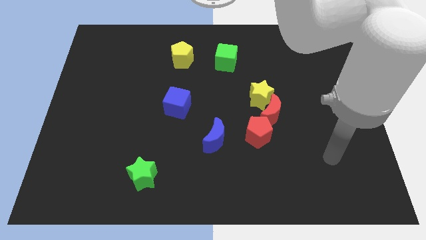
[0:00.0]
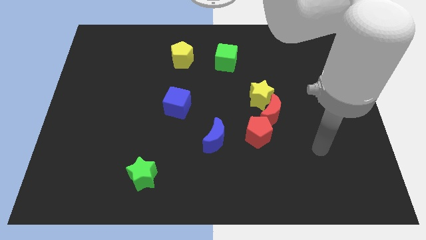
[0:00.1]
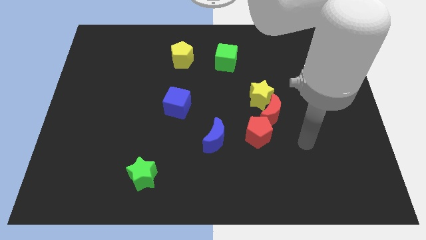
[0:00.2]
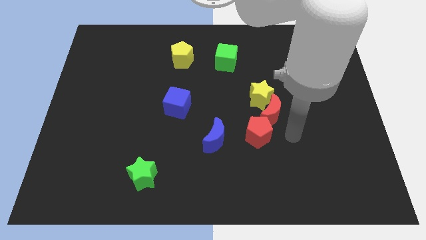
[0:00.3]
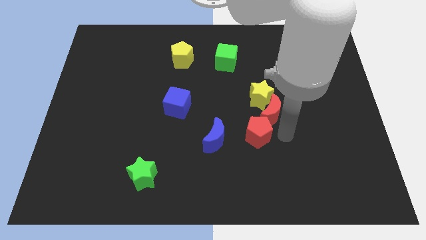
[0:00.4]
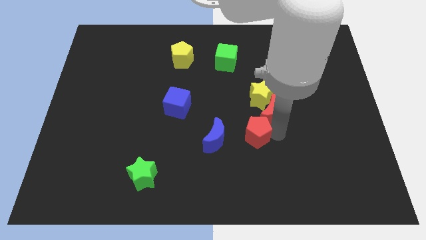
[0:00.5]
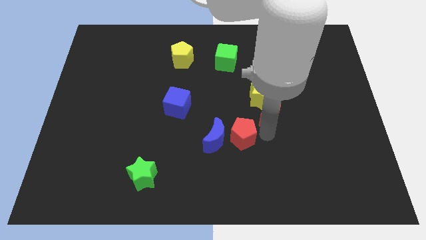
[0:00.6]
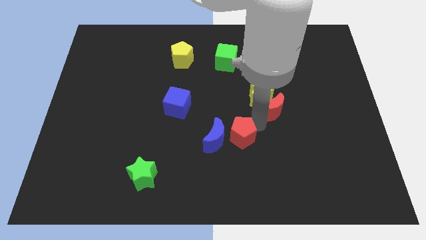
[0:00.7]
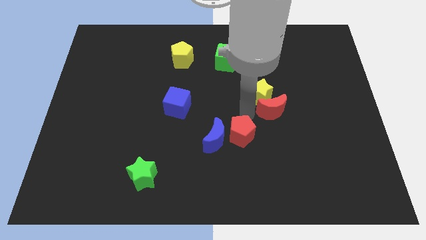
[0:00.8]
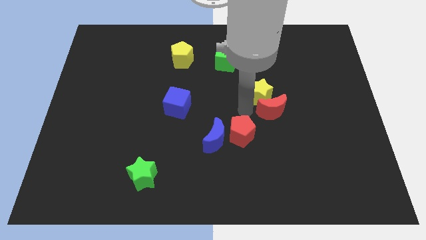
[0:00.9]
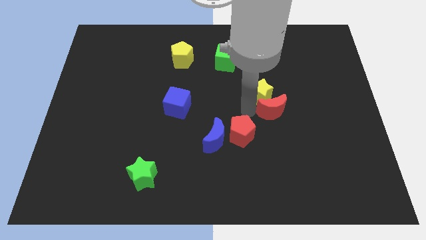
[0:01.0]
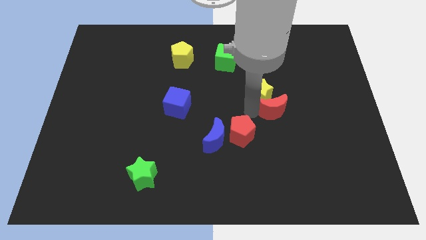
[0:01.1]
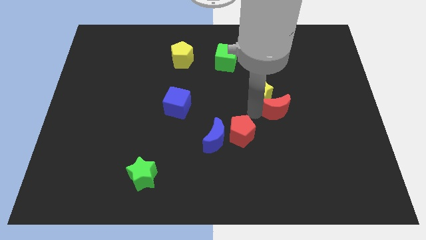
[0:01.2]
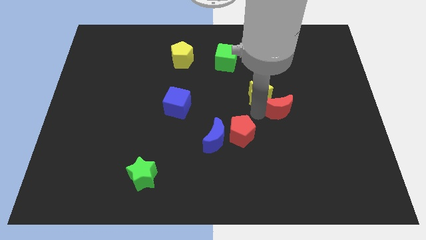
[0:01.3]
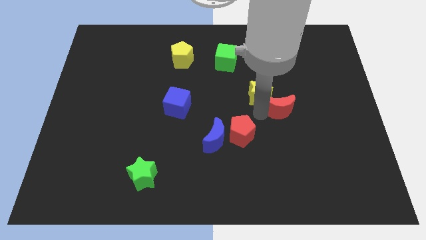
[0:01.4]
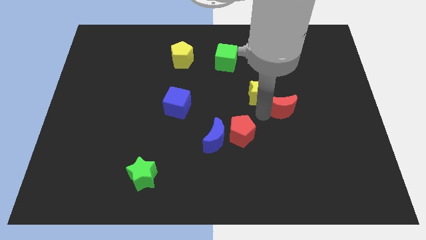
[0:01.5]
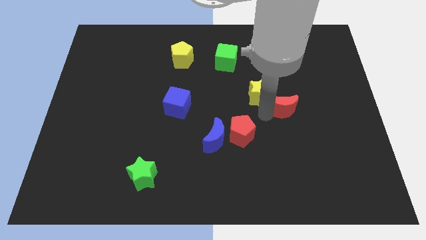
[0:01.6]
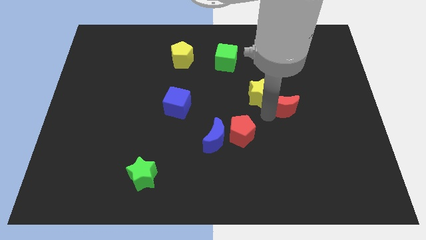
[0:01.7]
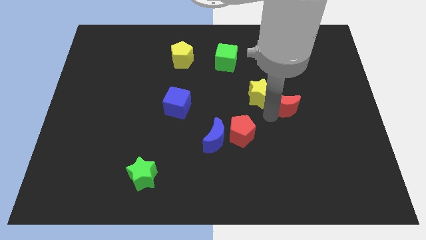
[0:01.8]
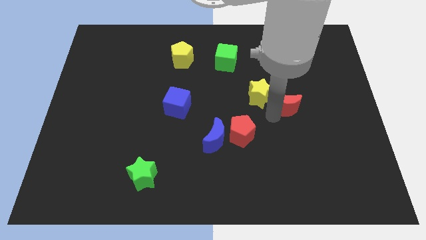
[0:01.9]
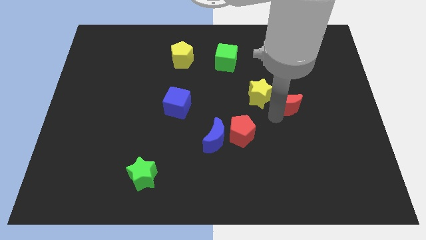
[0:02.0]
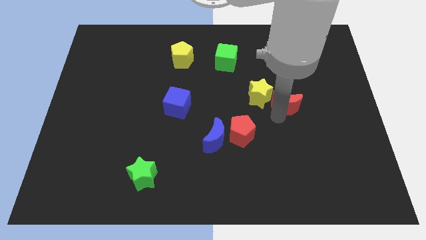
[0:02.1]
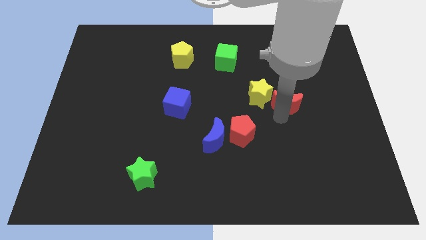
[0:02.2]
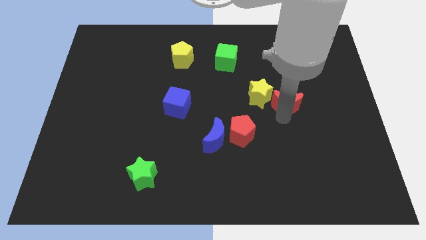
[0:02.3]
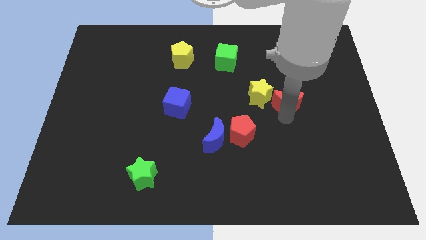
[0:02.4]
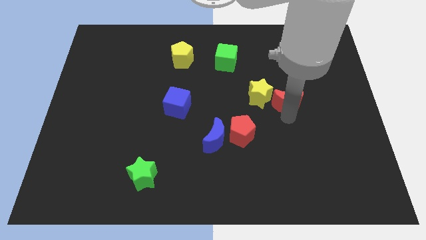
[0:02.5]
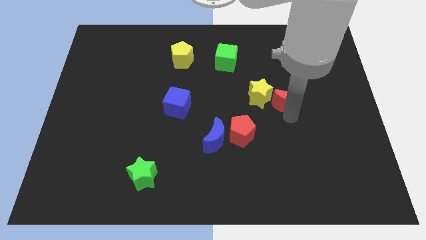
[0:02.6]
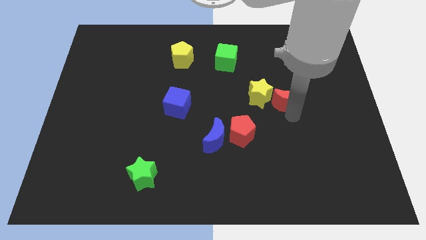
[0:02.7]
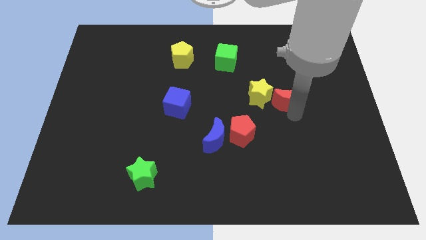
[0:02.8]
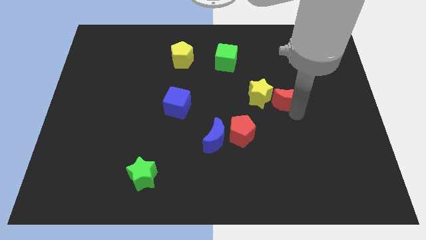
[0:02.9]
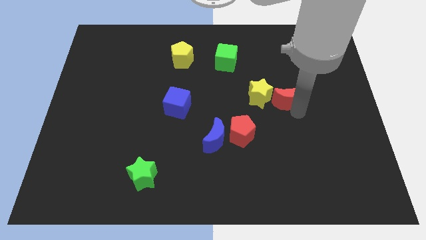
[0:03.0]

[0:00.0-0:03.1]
separate the red moon from the yellow star and red pentagon

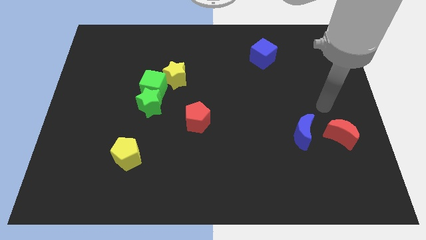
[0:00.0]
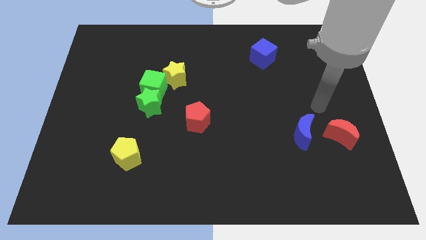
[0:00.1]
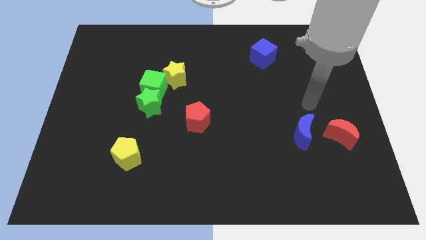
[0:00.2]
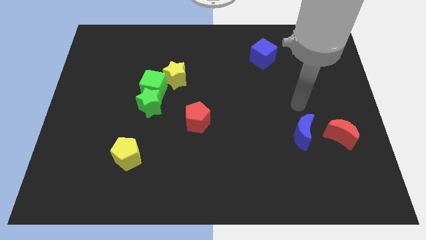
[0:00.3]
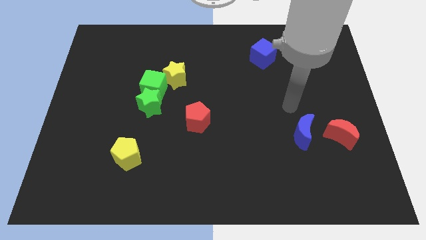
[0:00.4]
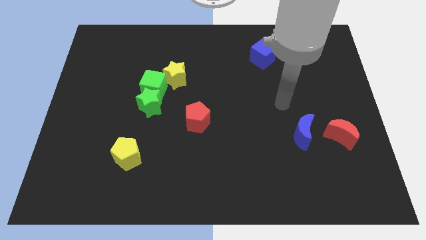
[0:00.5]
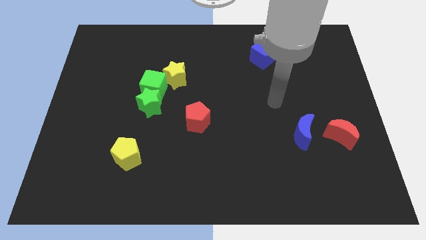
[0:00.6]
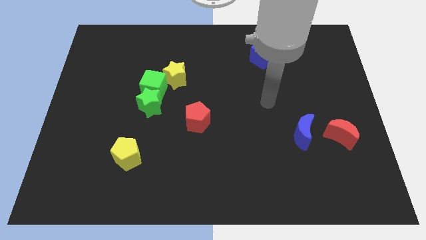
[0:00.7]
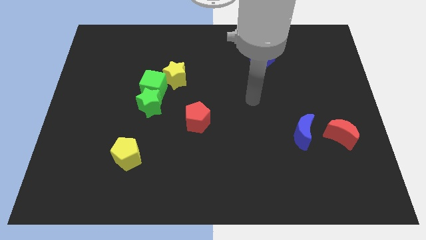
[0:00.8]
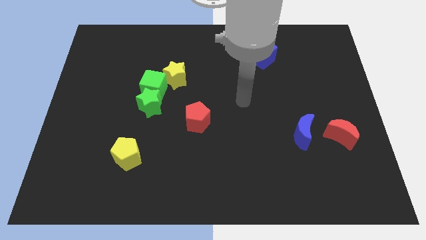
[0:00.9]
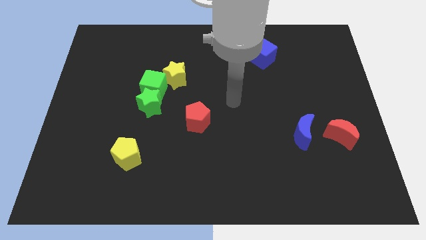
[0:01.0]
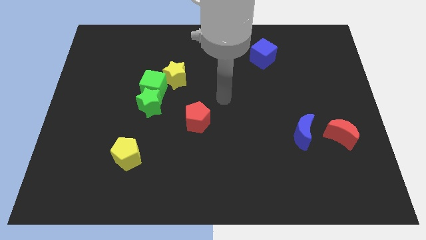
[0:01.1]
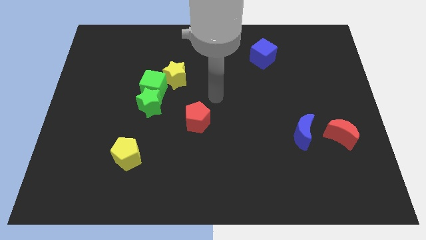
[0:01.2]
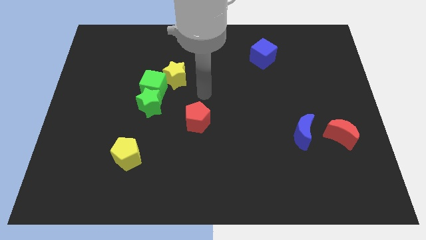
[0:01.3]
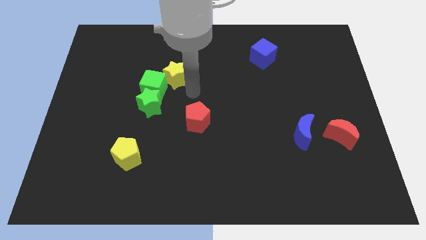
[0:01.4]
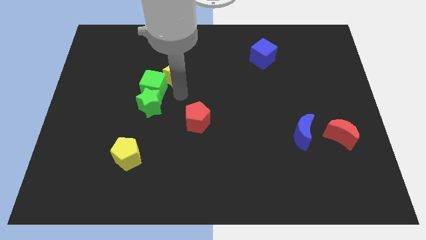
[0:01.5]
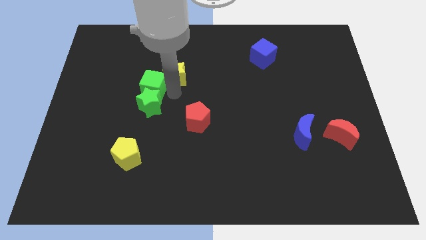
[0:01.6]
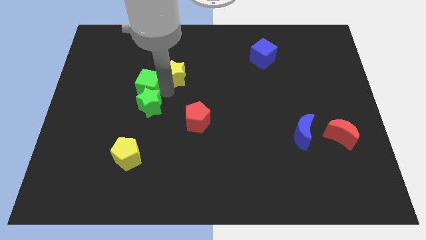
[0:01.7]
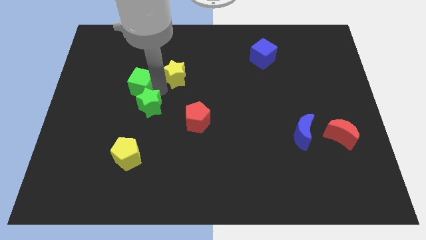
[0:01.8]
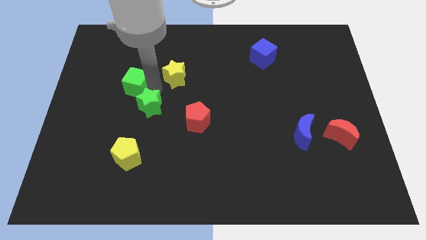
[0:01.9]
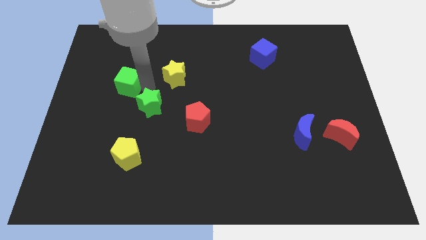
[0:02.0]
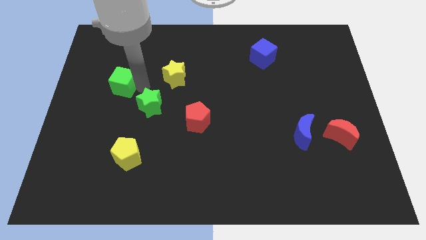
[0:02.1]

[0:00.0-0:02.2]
move the green cube away from the green star and yellow star

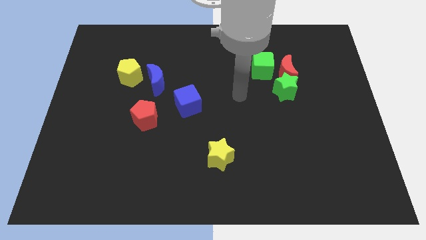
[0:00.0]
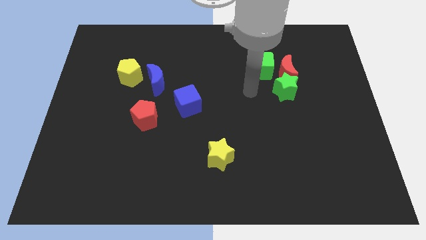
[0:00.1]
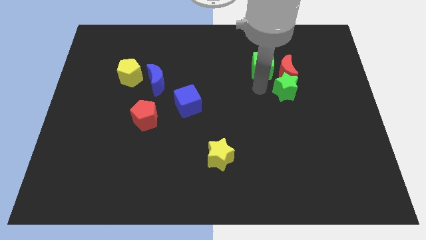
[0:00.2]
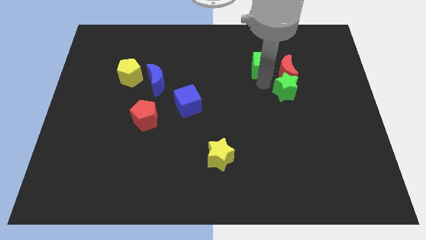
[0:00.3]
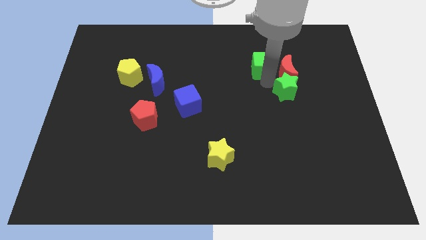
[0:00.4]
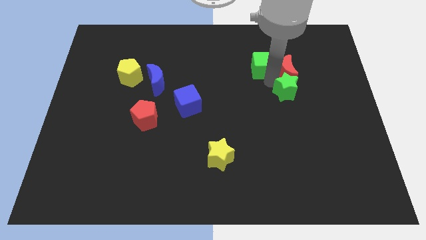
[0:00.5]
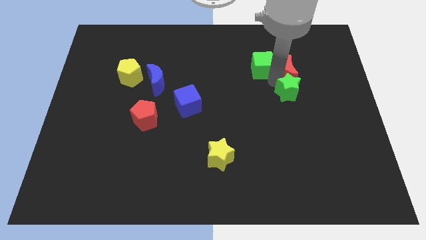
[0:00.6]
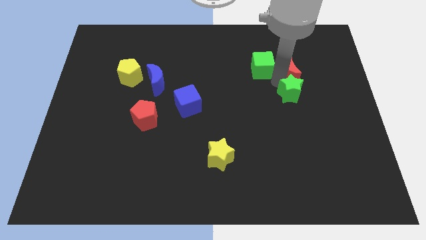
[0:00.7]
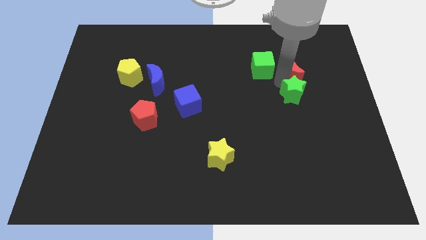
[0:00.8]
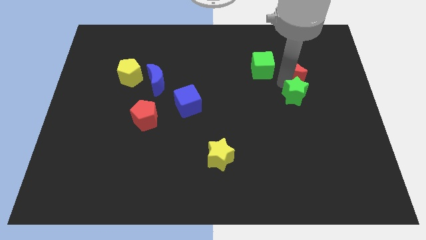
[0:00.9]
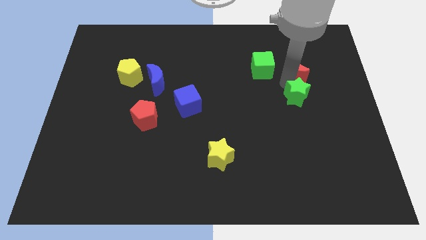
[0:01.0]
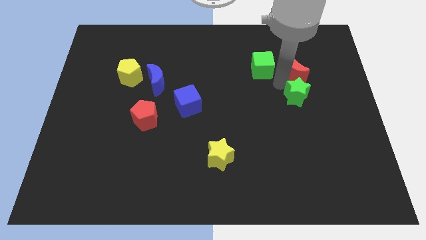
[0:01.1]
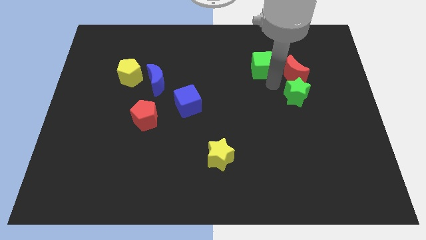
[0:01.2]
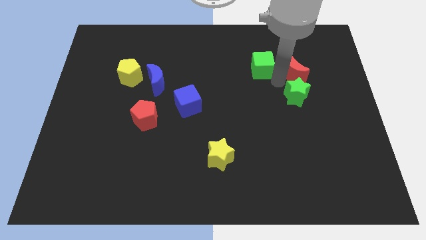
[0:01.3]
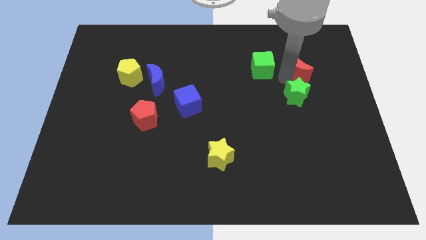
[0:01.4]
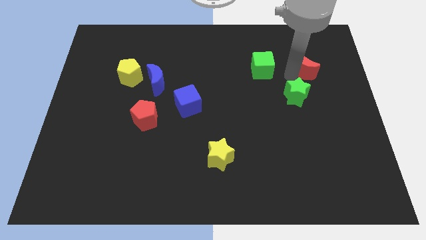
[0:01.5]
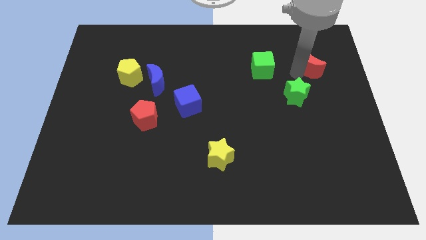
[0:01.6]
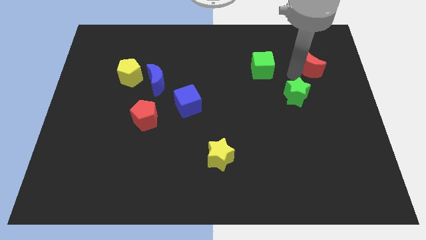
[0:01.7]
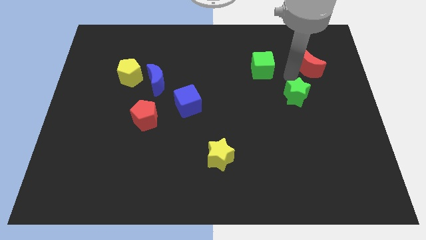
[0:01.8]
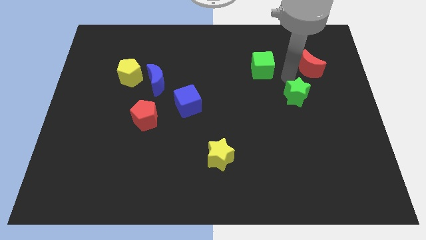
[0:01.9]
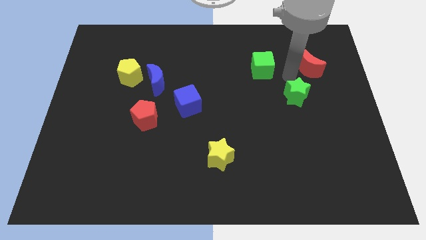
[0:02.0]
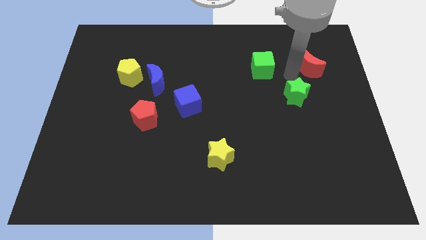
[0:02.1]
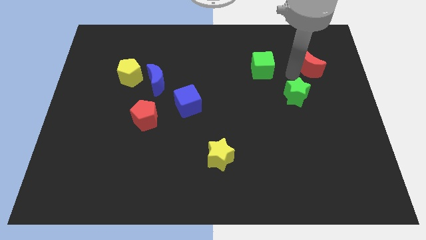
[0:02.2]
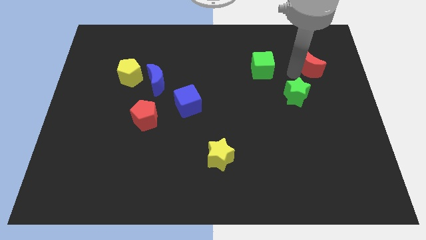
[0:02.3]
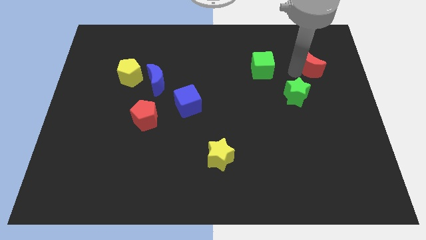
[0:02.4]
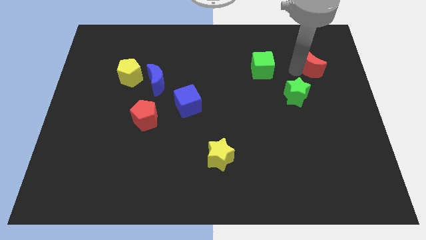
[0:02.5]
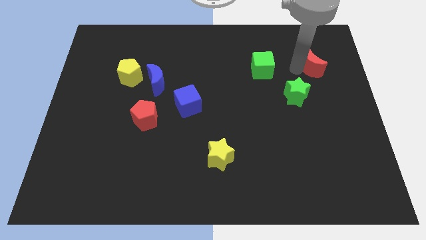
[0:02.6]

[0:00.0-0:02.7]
move the red moon away from the green star and green cube

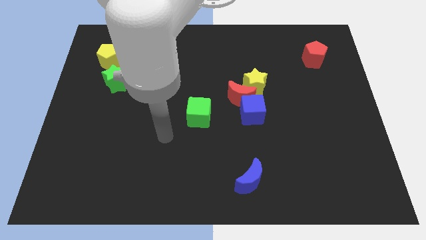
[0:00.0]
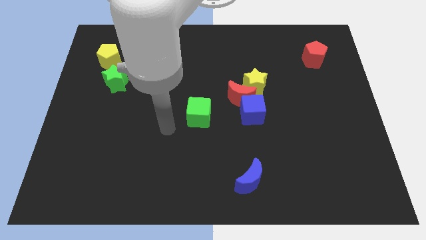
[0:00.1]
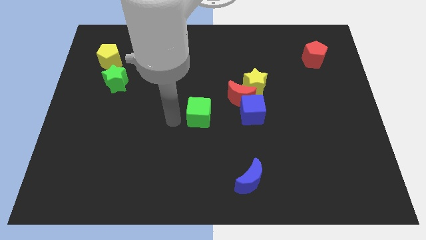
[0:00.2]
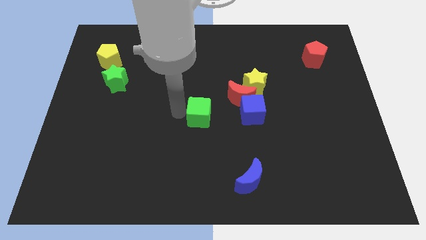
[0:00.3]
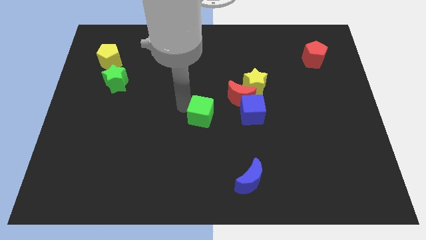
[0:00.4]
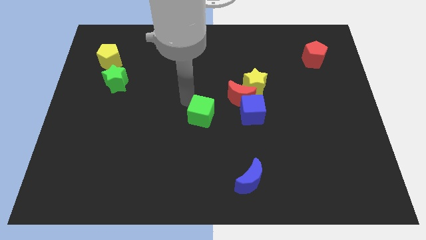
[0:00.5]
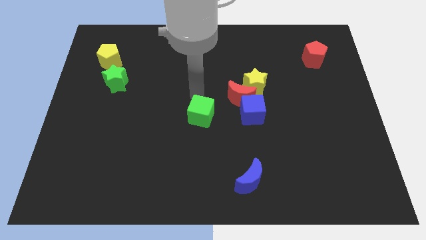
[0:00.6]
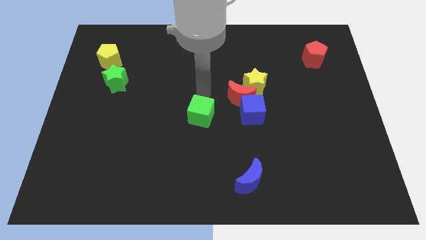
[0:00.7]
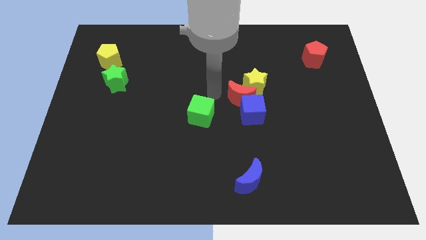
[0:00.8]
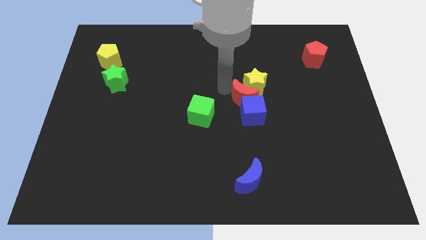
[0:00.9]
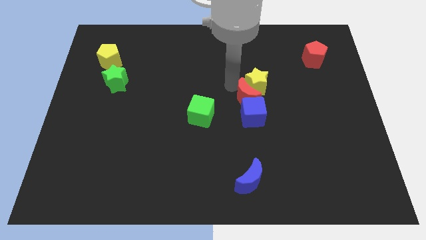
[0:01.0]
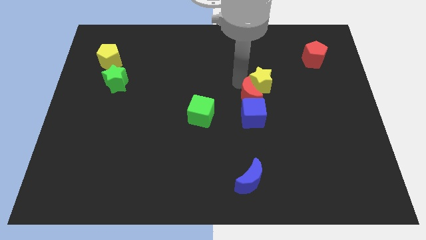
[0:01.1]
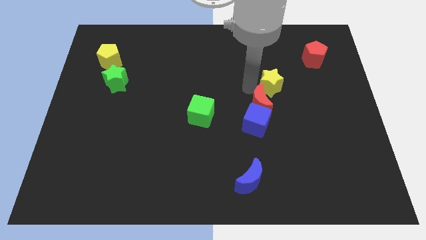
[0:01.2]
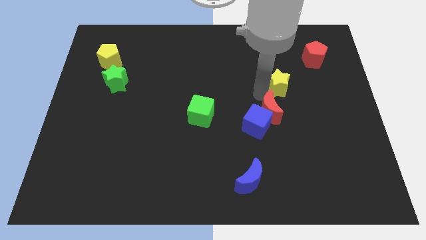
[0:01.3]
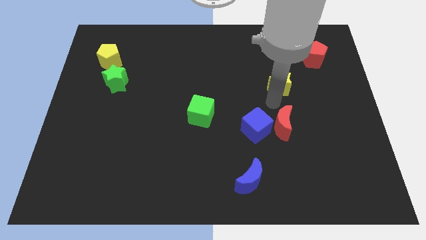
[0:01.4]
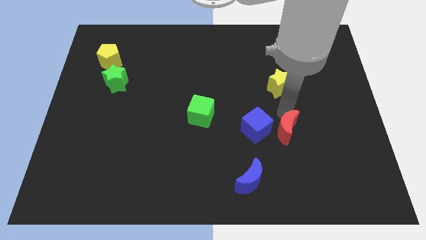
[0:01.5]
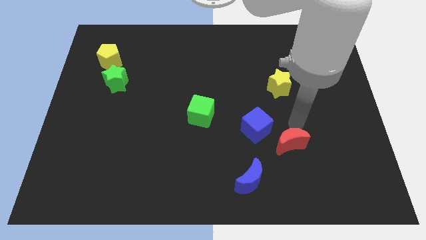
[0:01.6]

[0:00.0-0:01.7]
pull the red moon apart from the blue cube and yellow star
